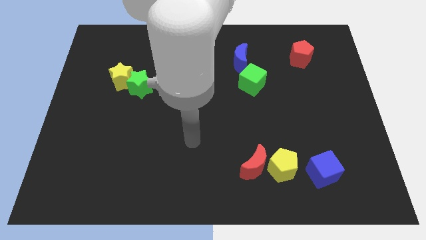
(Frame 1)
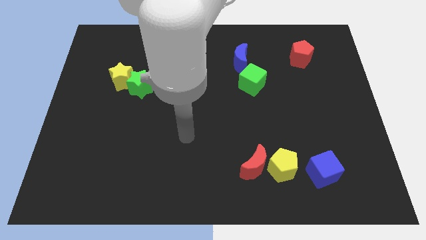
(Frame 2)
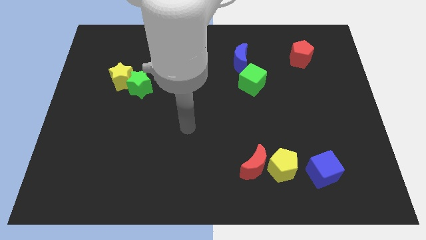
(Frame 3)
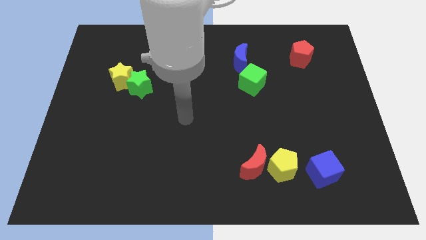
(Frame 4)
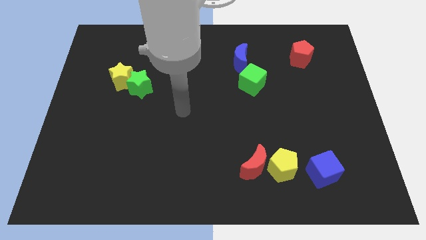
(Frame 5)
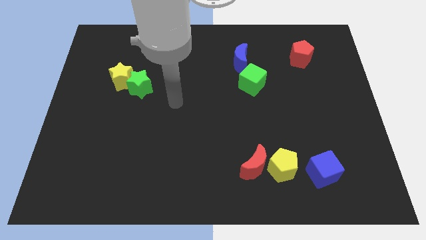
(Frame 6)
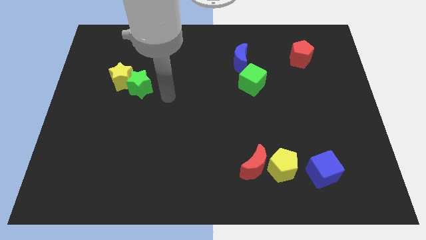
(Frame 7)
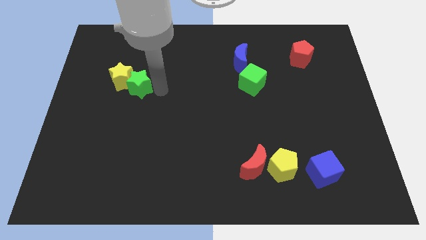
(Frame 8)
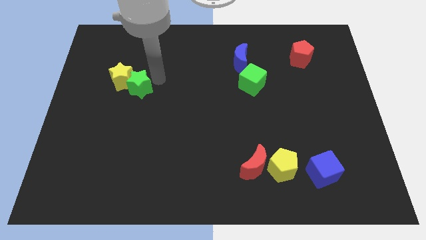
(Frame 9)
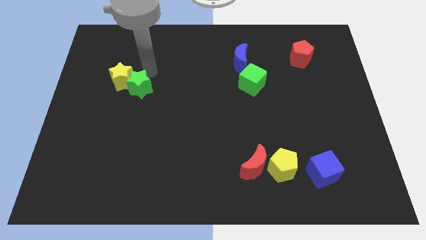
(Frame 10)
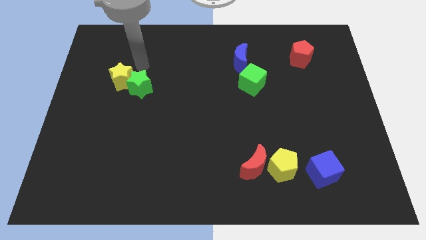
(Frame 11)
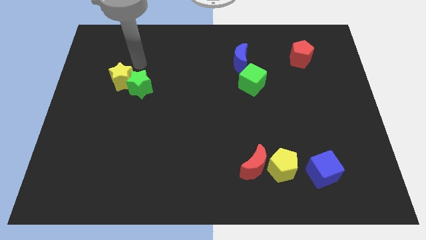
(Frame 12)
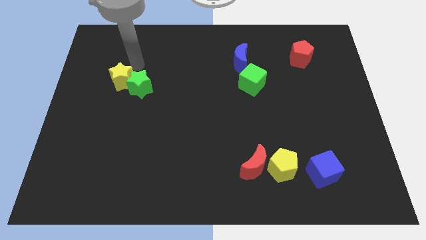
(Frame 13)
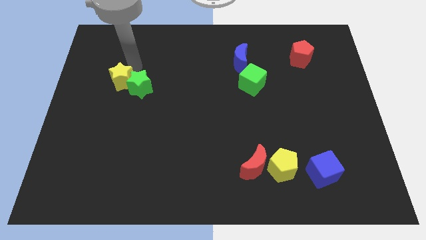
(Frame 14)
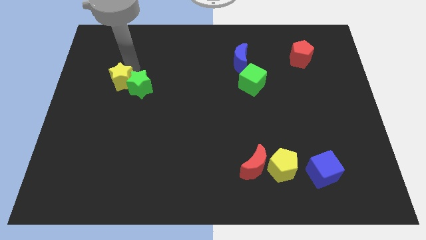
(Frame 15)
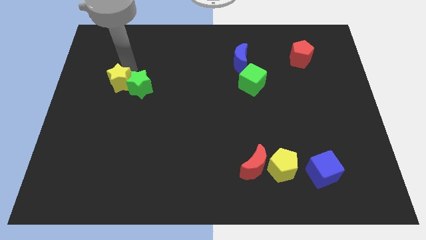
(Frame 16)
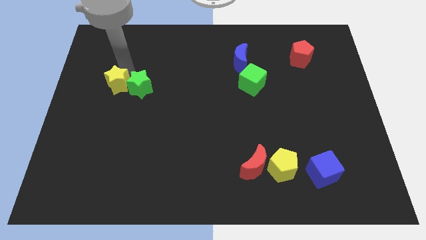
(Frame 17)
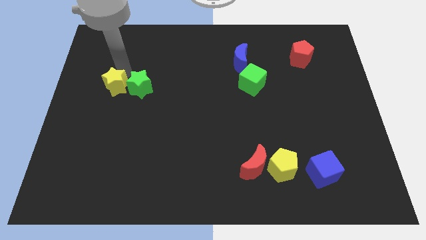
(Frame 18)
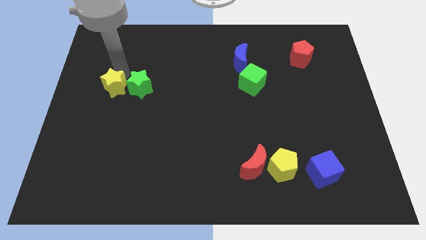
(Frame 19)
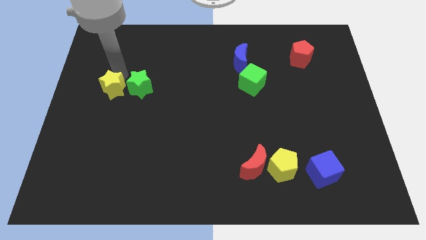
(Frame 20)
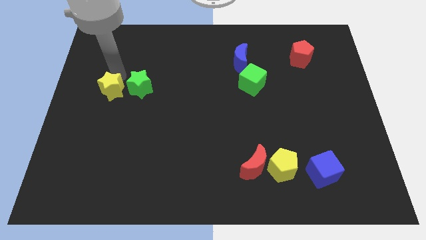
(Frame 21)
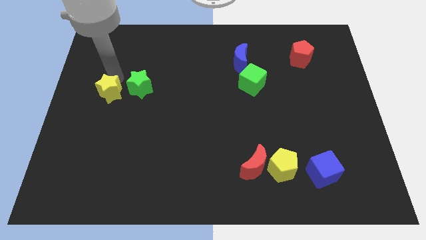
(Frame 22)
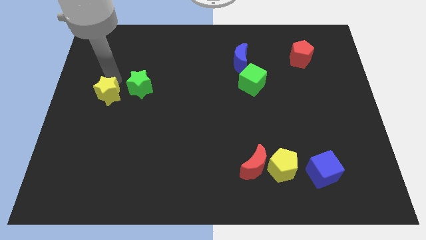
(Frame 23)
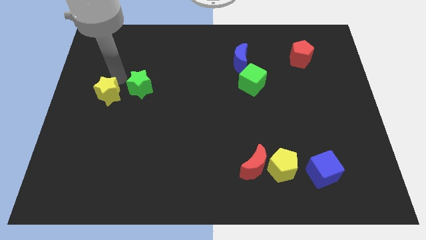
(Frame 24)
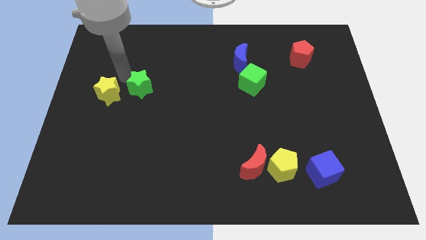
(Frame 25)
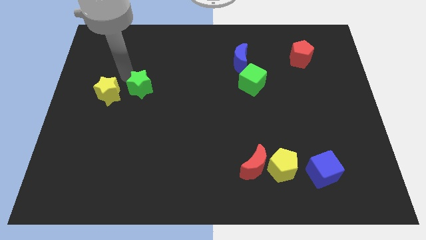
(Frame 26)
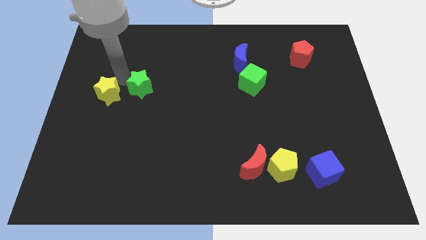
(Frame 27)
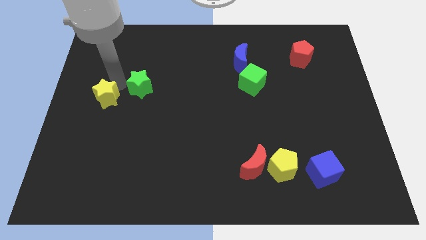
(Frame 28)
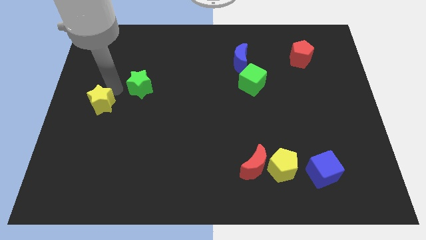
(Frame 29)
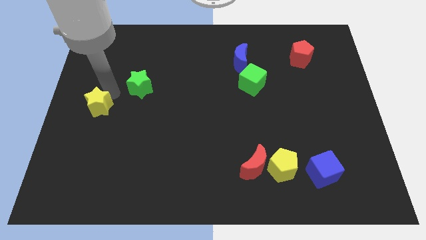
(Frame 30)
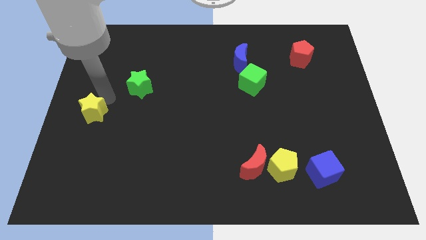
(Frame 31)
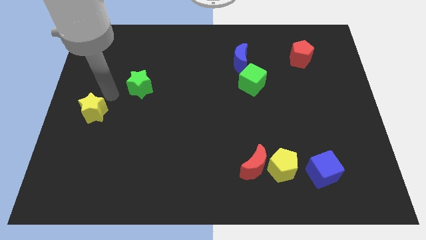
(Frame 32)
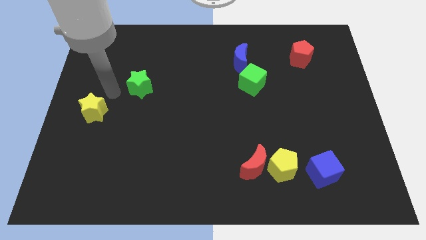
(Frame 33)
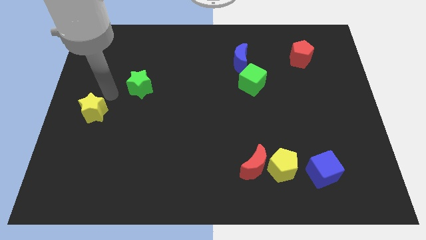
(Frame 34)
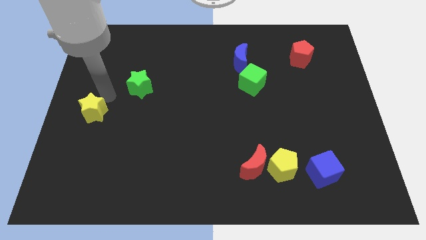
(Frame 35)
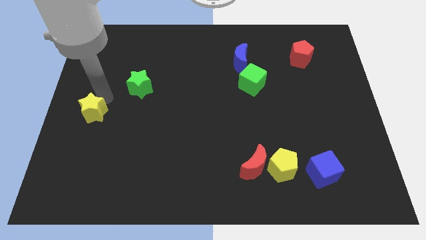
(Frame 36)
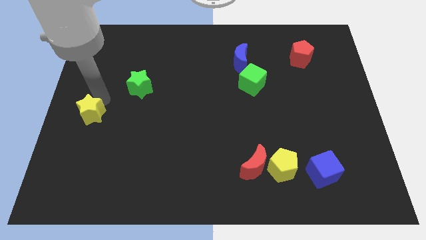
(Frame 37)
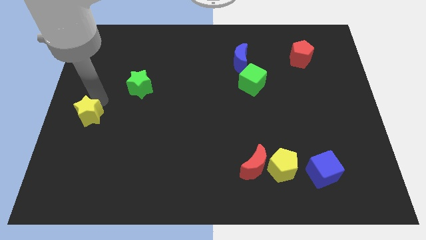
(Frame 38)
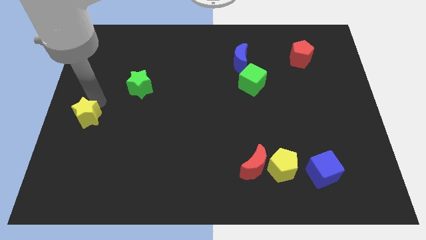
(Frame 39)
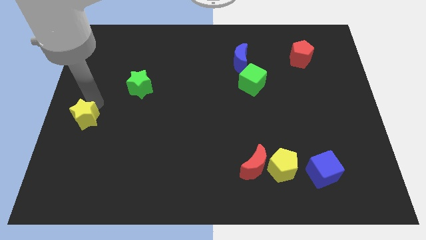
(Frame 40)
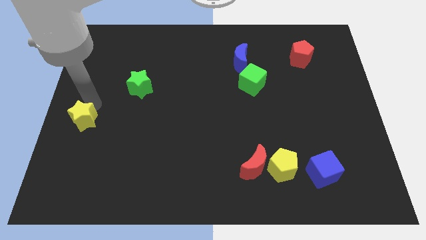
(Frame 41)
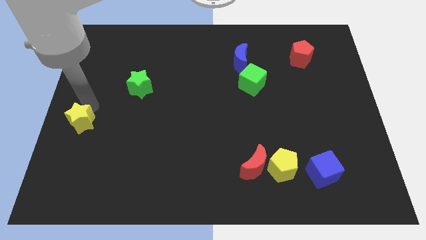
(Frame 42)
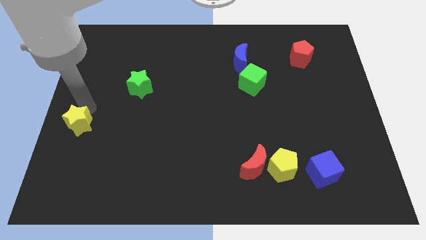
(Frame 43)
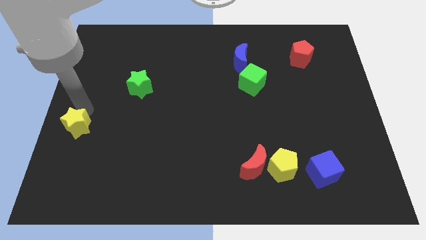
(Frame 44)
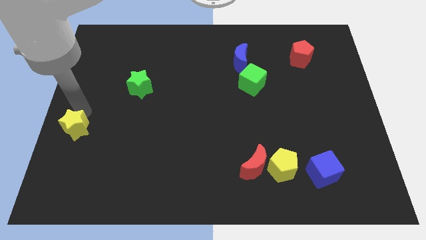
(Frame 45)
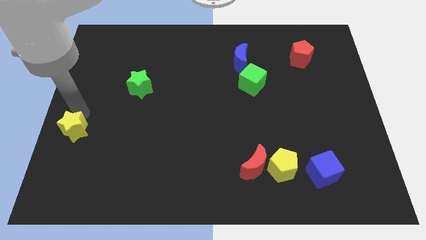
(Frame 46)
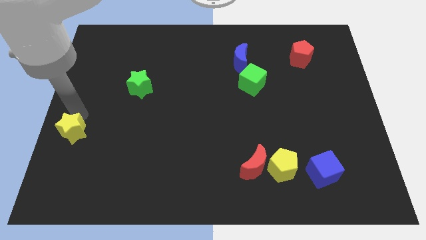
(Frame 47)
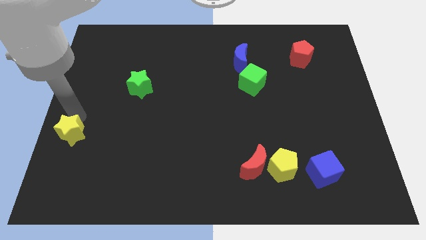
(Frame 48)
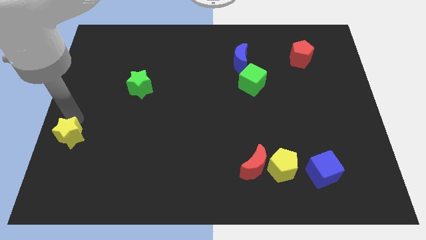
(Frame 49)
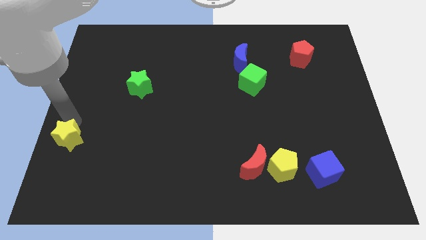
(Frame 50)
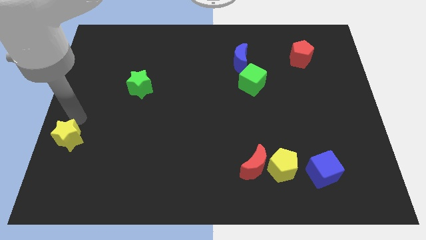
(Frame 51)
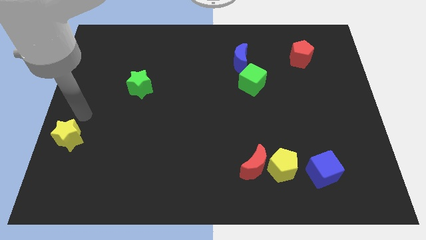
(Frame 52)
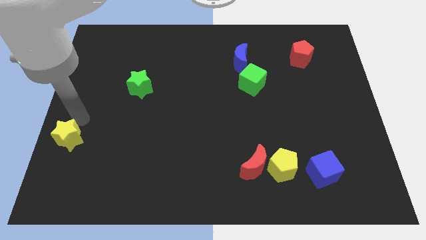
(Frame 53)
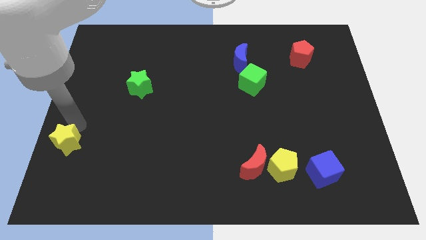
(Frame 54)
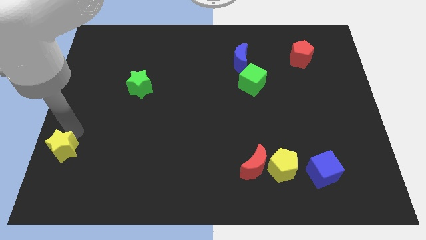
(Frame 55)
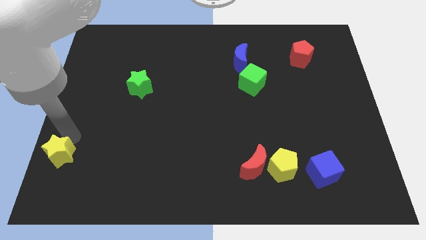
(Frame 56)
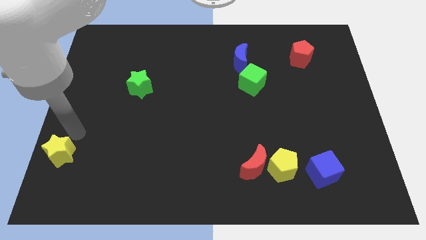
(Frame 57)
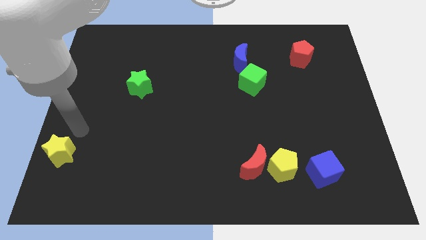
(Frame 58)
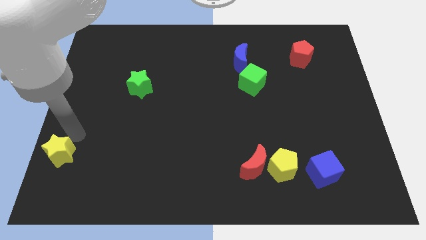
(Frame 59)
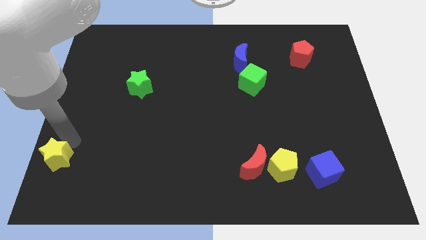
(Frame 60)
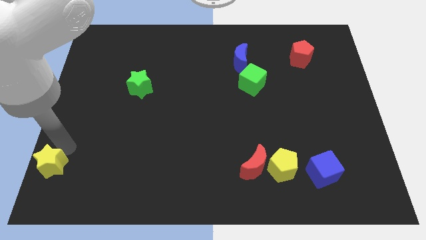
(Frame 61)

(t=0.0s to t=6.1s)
slide the yellow star to the bottom left corner
